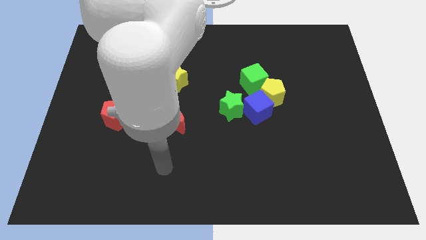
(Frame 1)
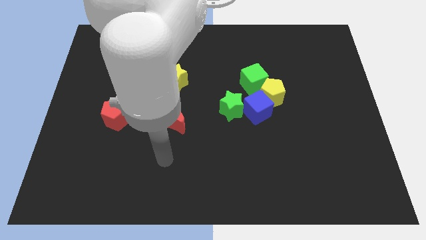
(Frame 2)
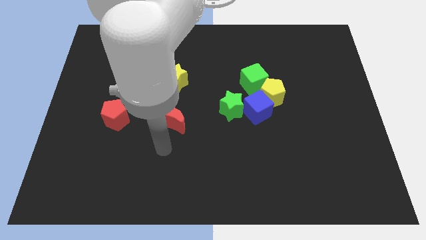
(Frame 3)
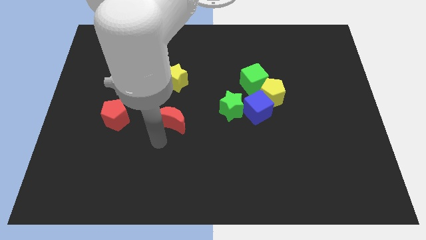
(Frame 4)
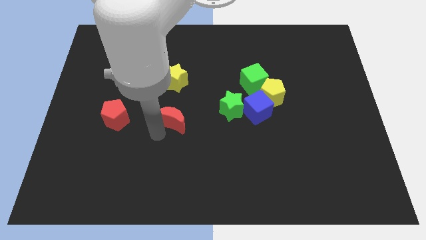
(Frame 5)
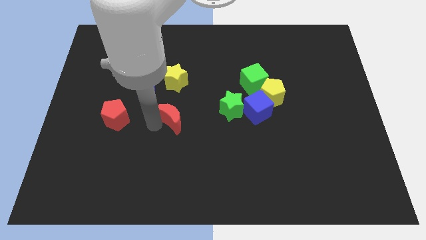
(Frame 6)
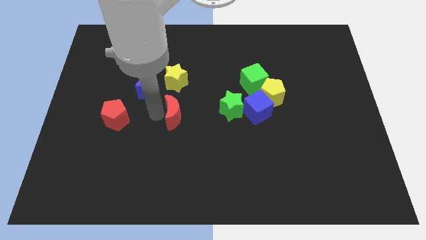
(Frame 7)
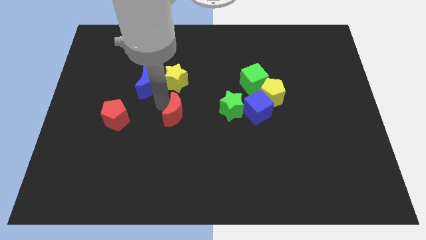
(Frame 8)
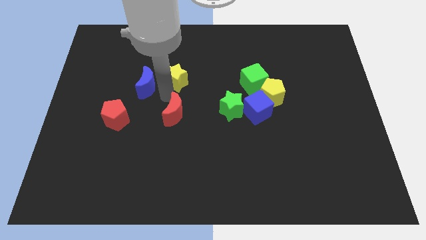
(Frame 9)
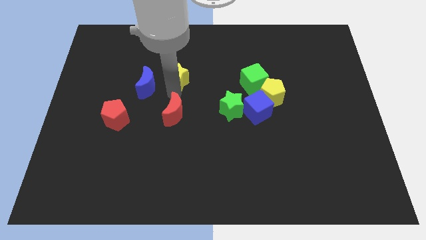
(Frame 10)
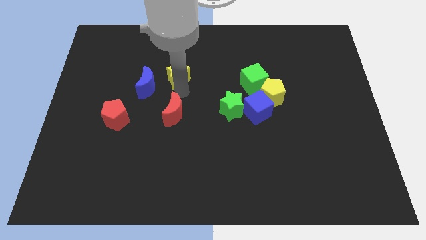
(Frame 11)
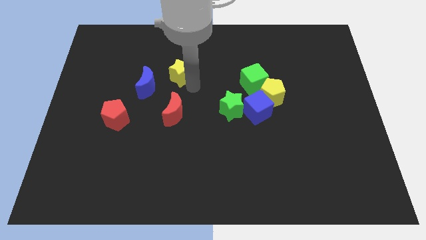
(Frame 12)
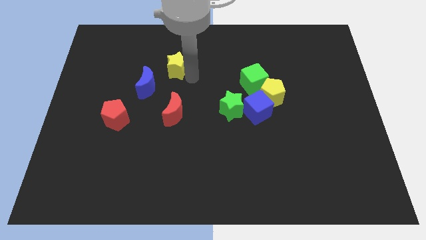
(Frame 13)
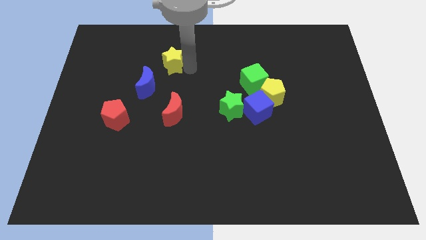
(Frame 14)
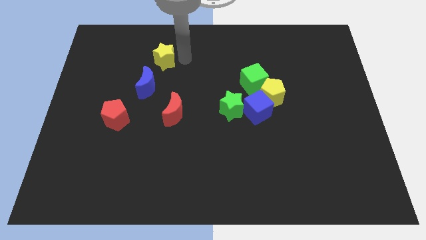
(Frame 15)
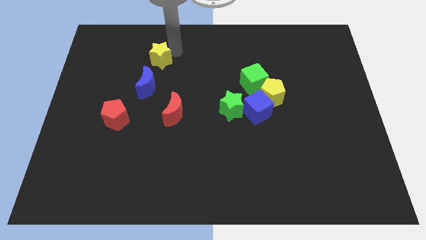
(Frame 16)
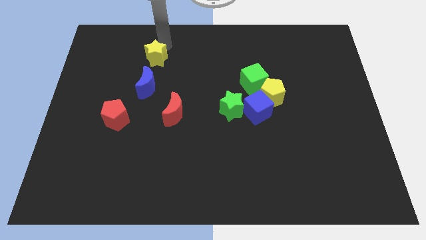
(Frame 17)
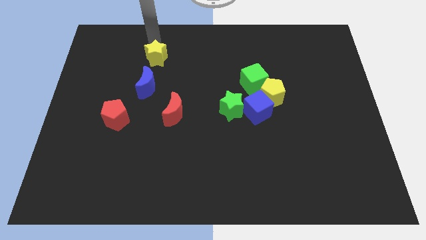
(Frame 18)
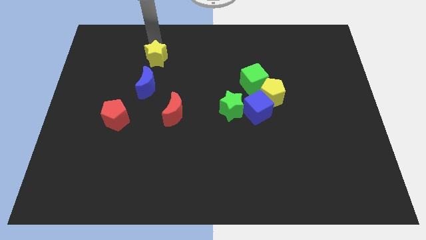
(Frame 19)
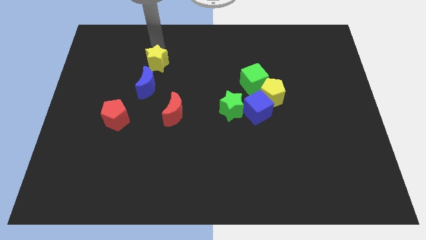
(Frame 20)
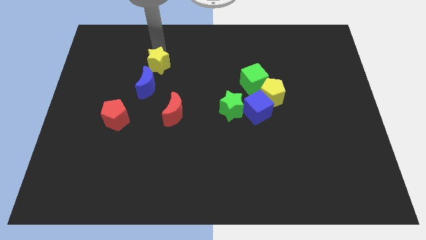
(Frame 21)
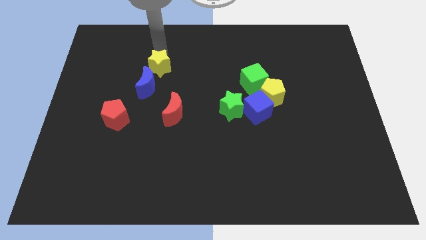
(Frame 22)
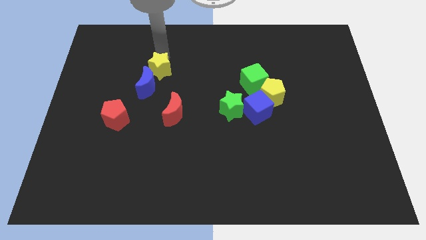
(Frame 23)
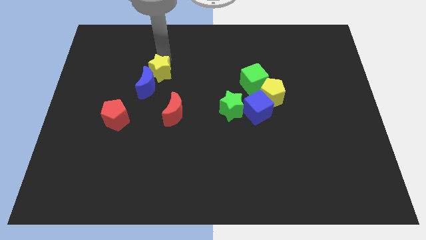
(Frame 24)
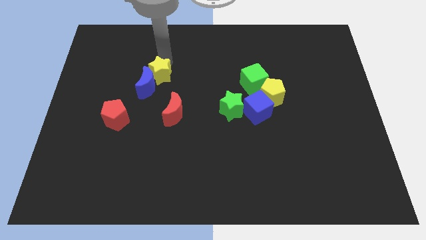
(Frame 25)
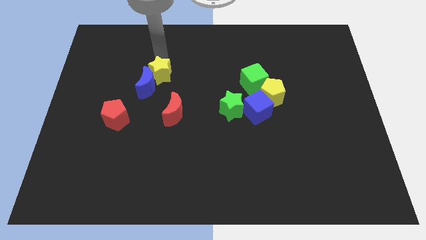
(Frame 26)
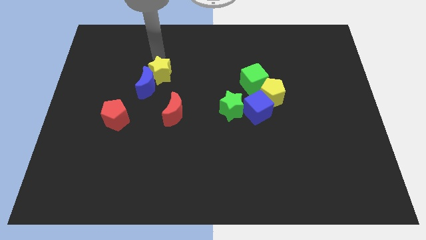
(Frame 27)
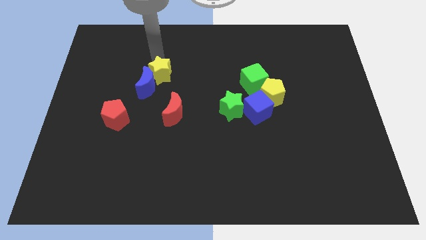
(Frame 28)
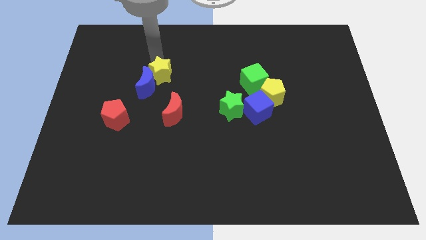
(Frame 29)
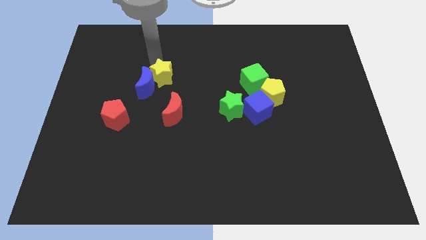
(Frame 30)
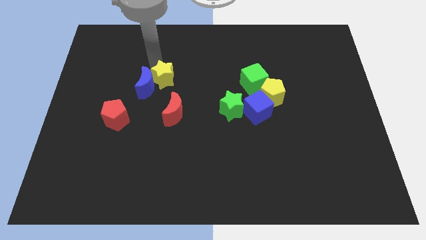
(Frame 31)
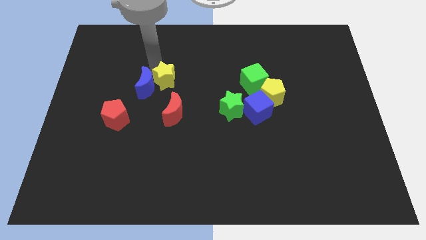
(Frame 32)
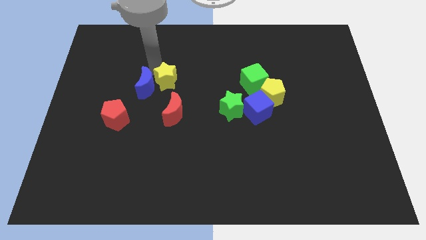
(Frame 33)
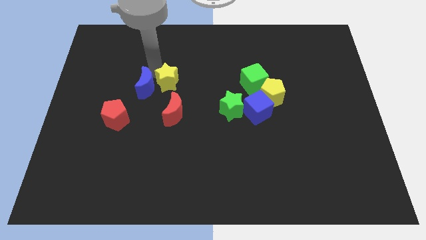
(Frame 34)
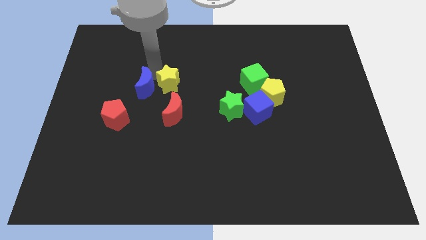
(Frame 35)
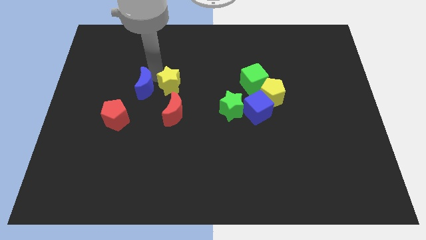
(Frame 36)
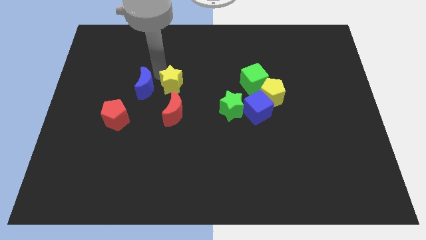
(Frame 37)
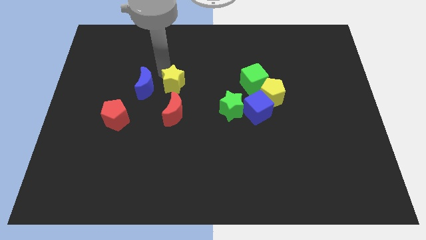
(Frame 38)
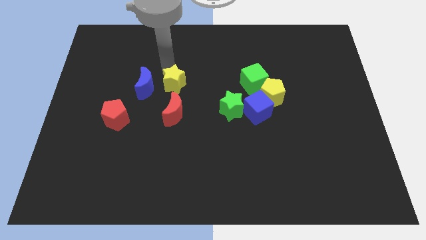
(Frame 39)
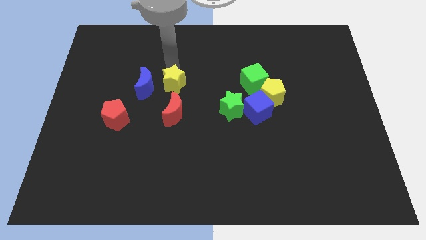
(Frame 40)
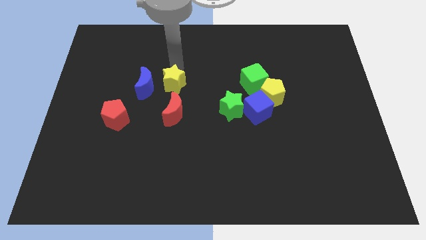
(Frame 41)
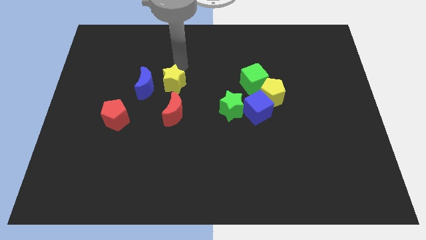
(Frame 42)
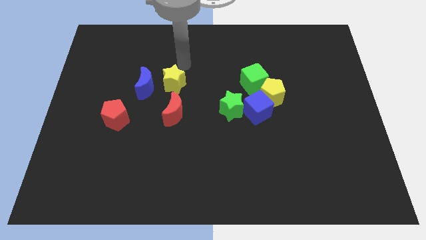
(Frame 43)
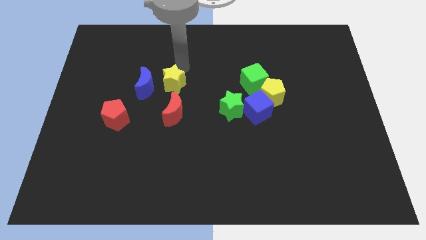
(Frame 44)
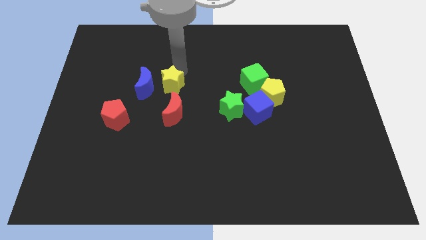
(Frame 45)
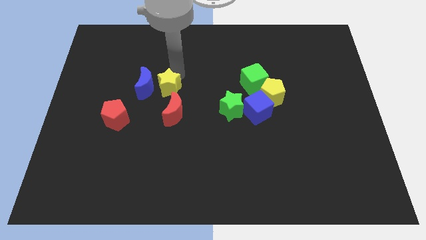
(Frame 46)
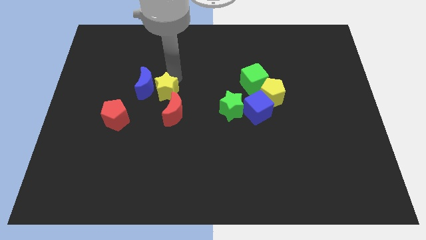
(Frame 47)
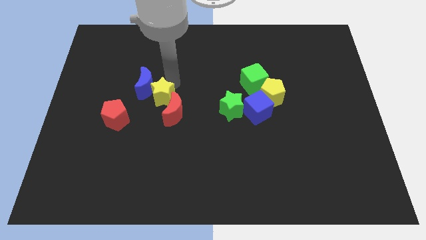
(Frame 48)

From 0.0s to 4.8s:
slide the yellow star to the top right side of the red pentagon

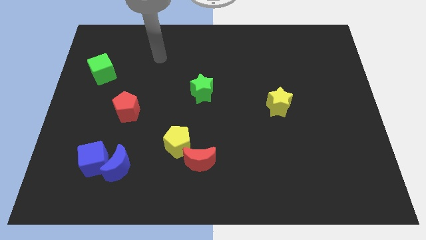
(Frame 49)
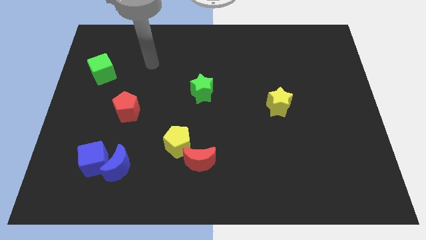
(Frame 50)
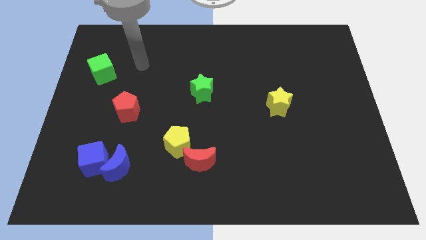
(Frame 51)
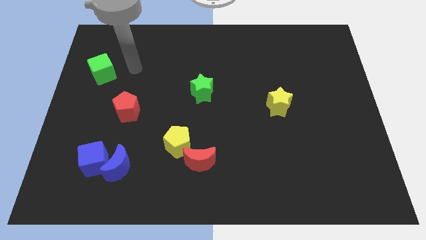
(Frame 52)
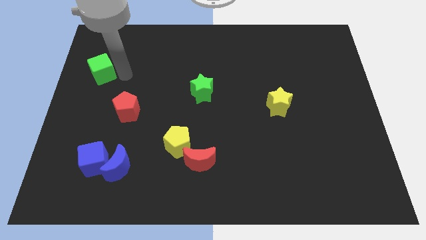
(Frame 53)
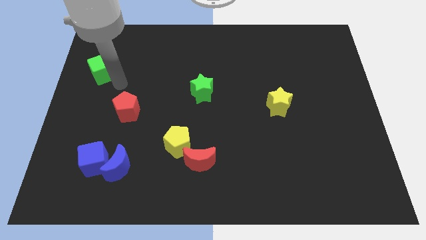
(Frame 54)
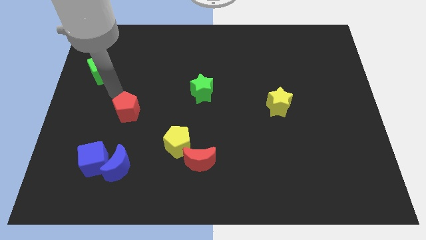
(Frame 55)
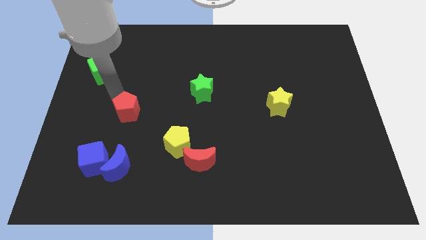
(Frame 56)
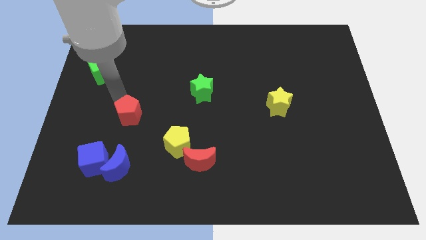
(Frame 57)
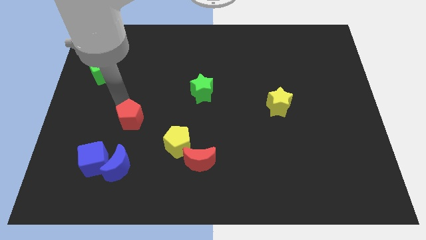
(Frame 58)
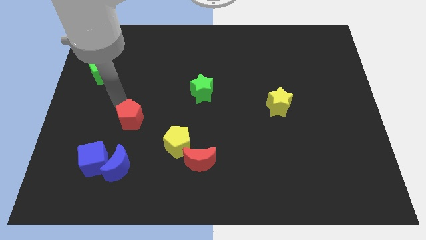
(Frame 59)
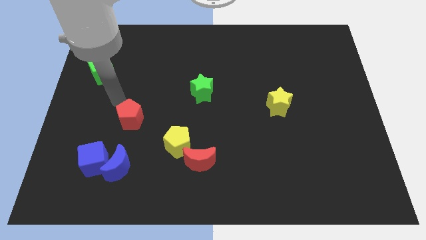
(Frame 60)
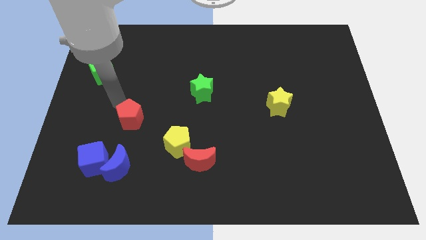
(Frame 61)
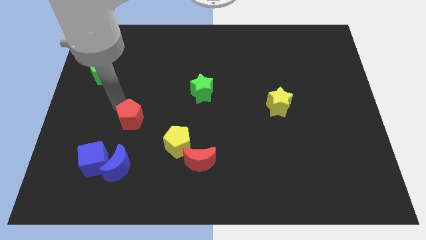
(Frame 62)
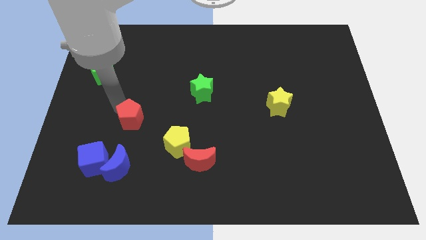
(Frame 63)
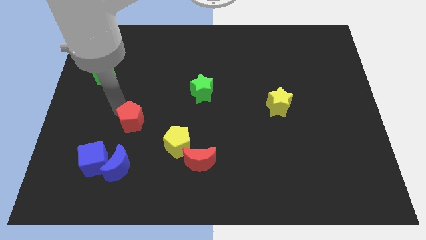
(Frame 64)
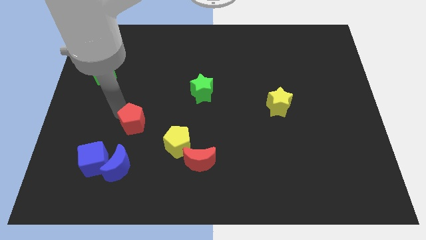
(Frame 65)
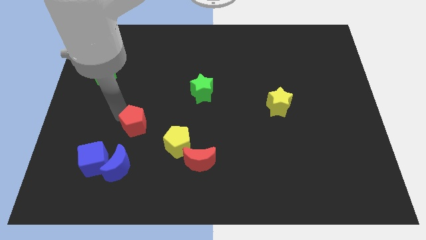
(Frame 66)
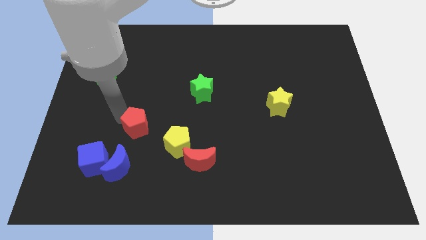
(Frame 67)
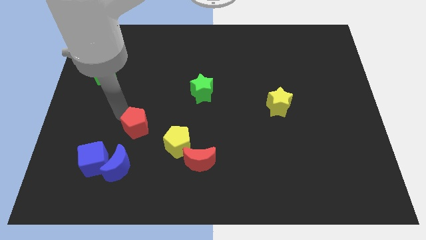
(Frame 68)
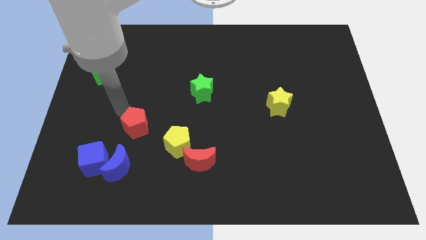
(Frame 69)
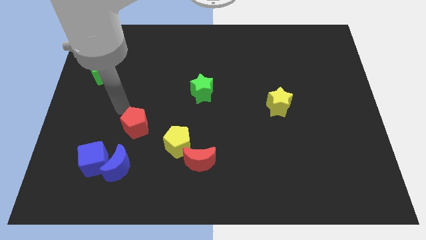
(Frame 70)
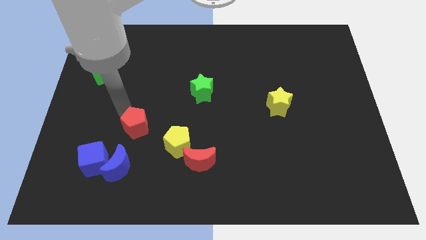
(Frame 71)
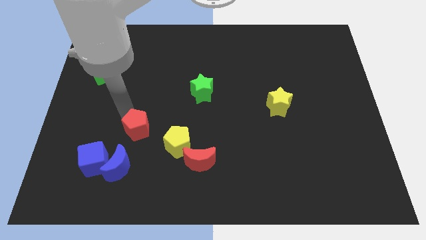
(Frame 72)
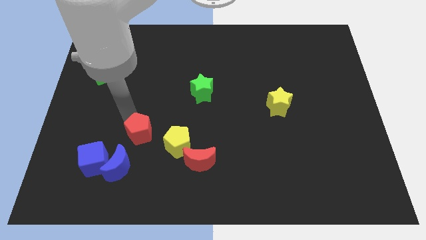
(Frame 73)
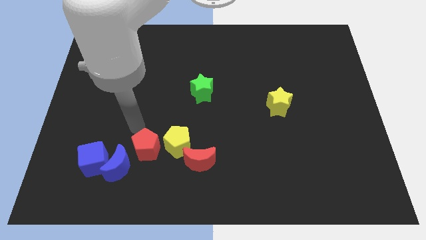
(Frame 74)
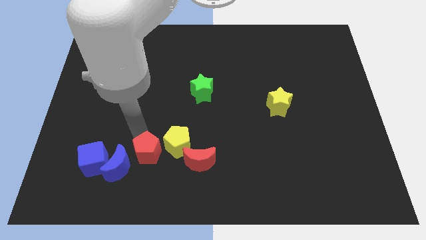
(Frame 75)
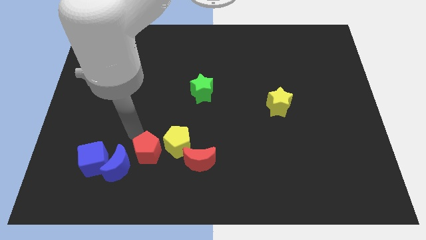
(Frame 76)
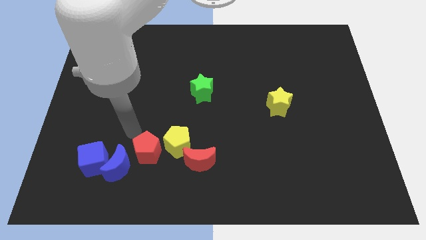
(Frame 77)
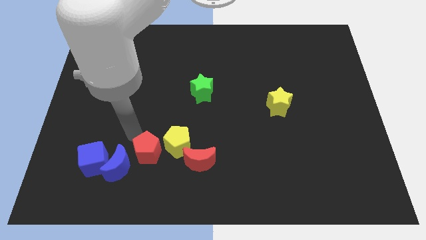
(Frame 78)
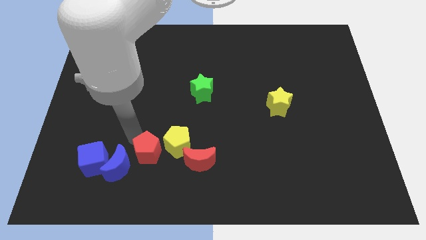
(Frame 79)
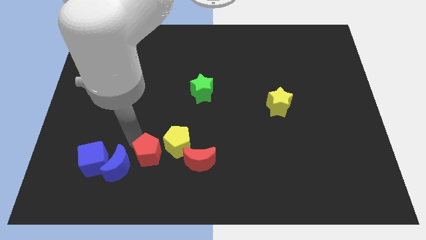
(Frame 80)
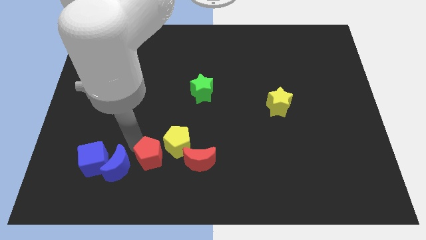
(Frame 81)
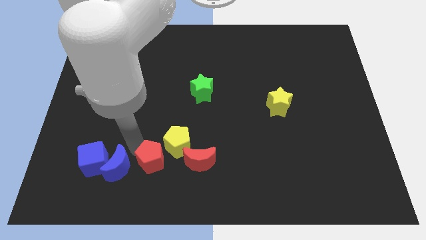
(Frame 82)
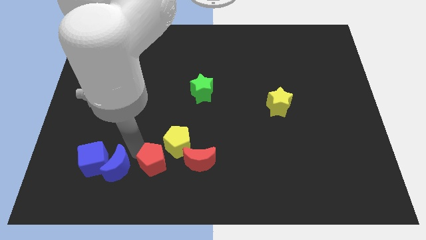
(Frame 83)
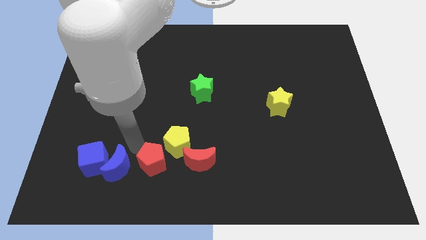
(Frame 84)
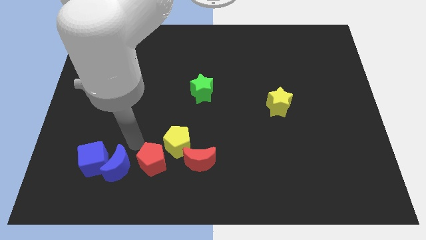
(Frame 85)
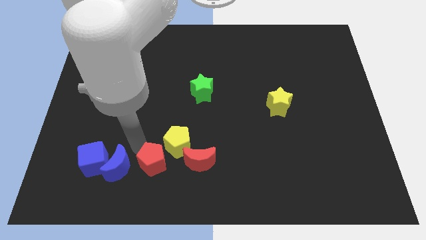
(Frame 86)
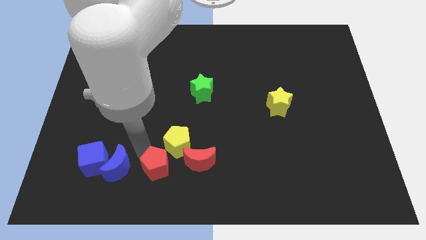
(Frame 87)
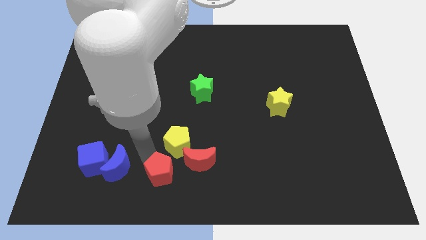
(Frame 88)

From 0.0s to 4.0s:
push the red pentagon to the bottom left side of the red moon
